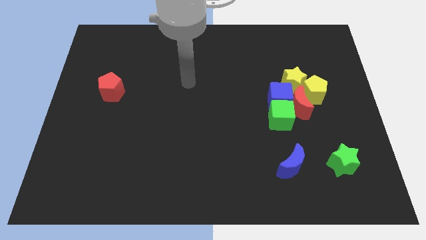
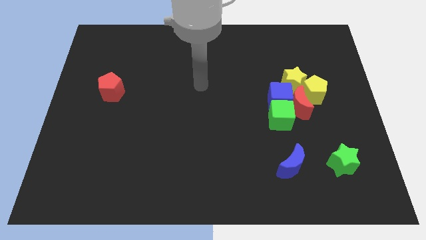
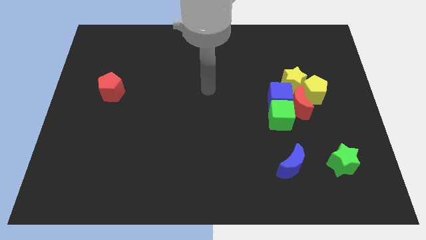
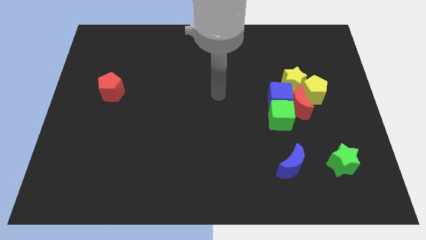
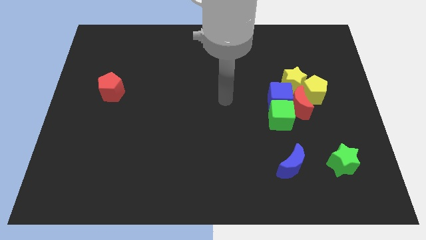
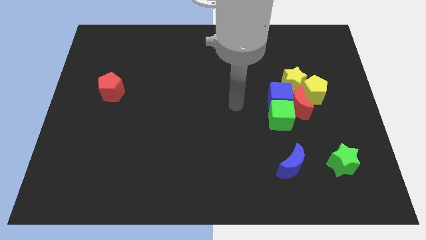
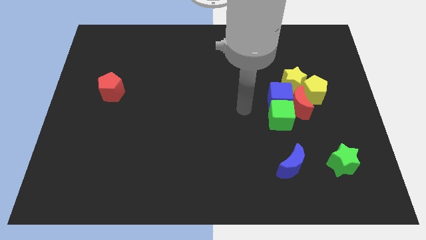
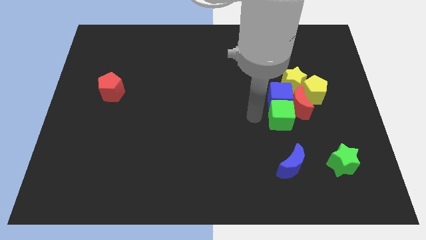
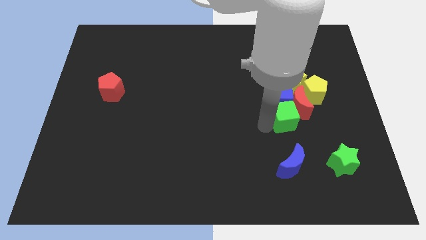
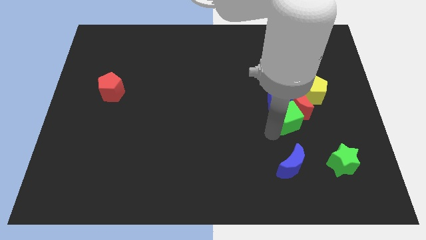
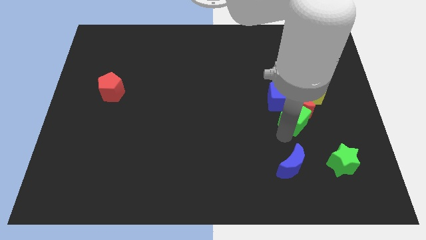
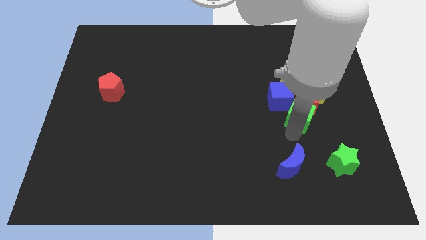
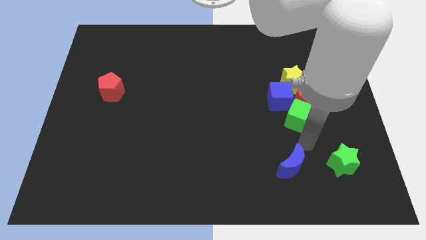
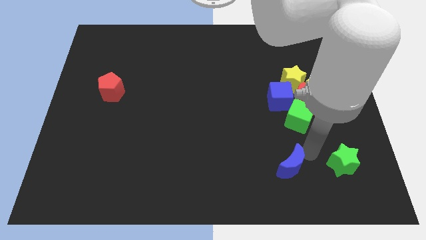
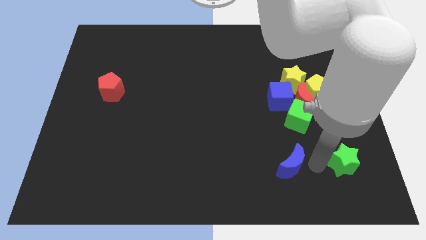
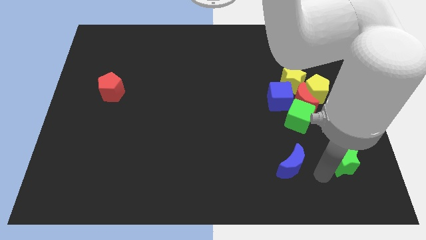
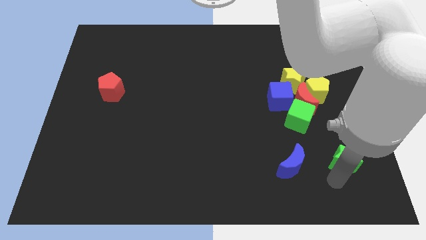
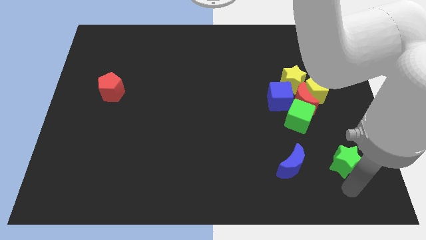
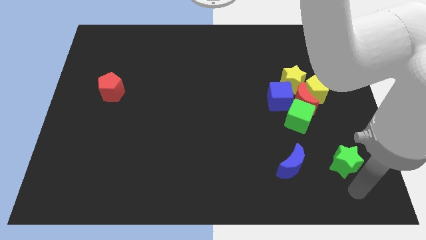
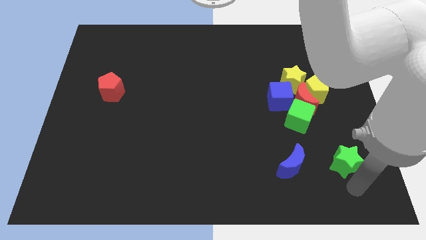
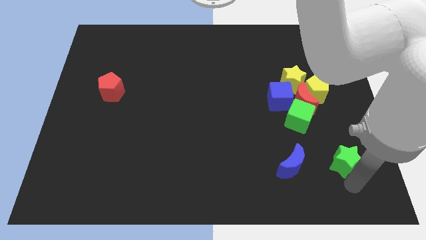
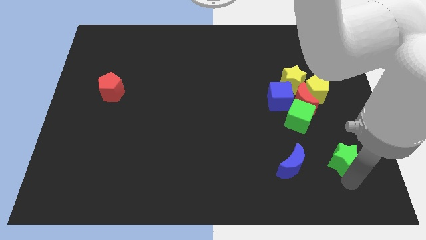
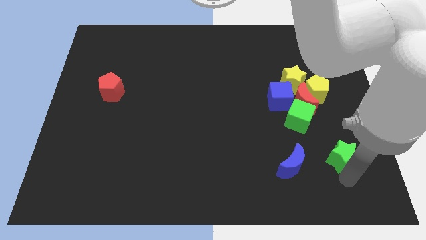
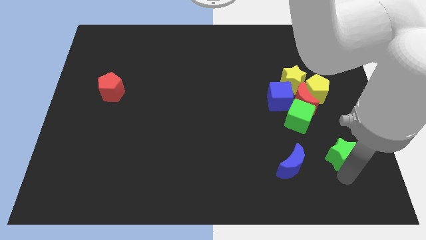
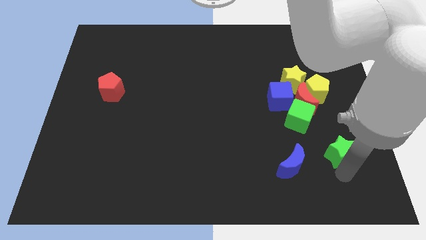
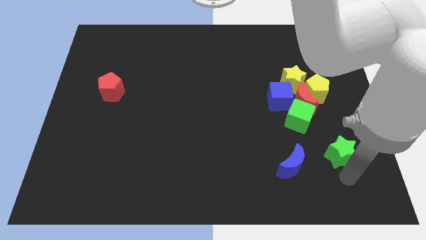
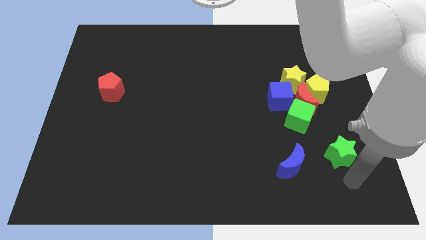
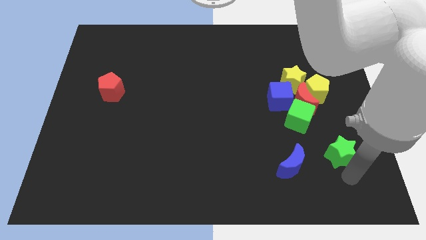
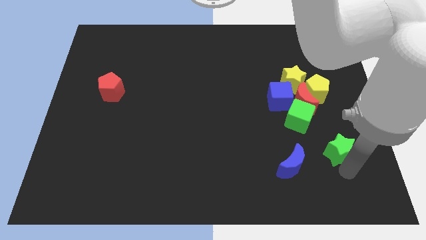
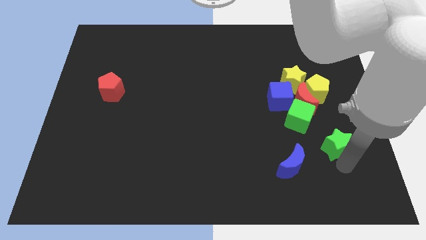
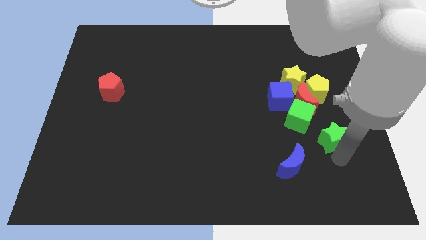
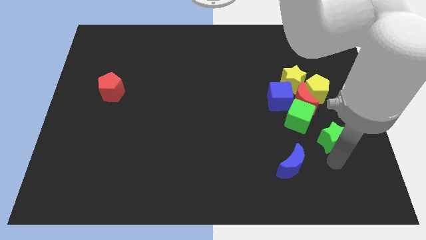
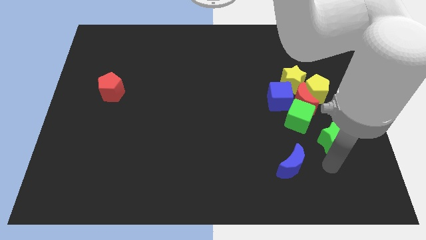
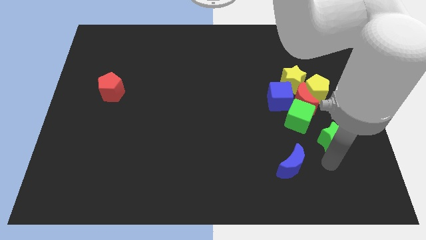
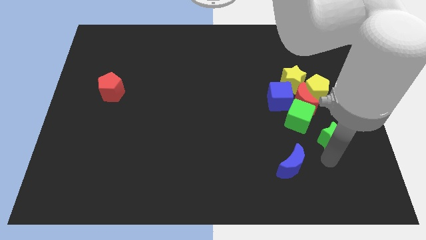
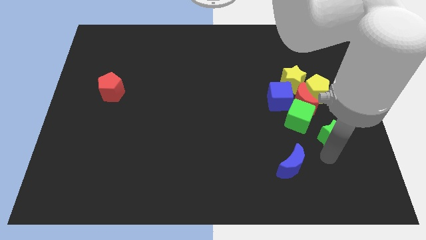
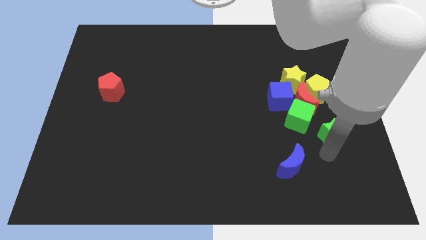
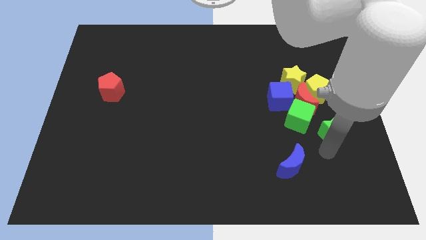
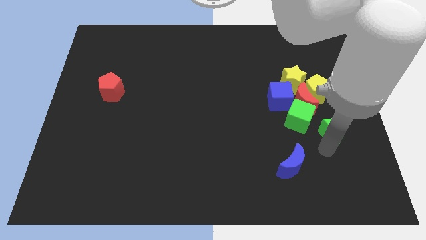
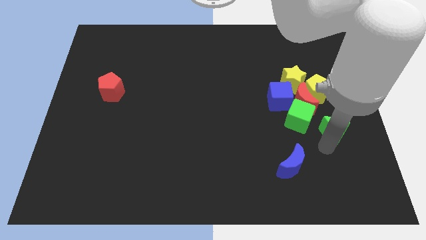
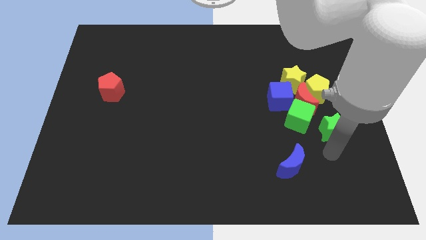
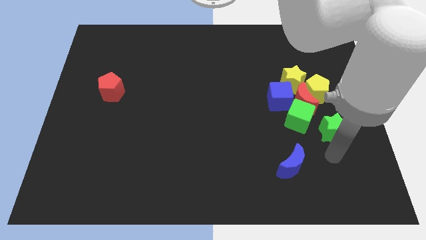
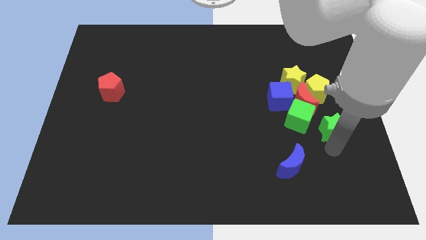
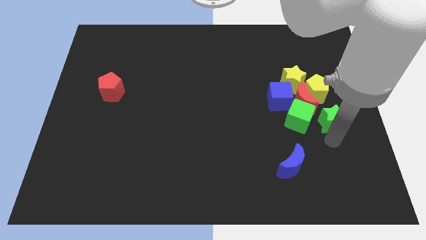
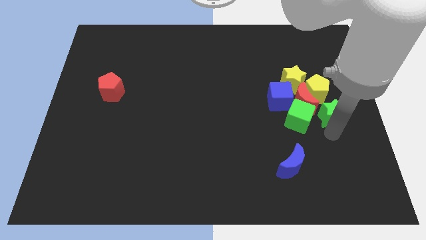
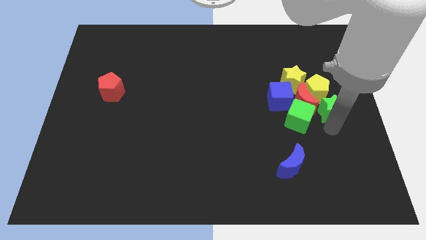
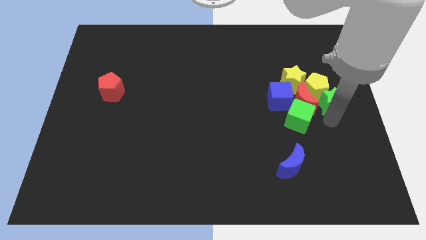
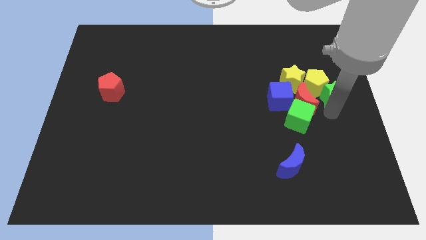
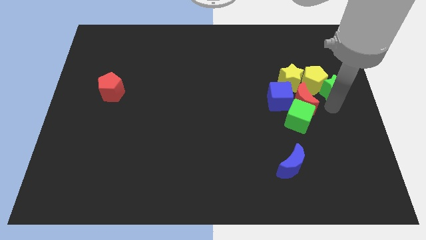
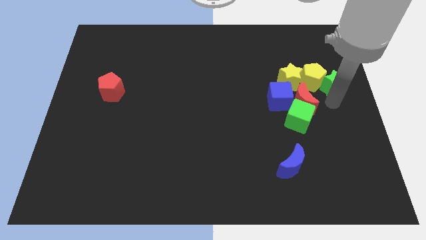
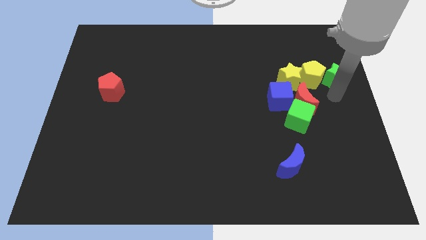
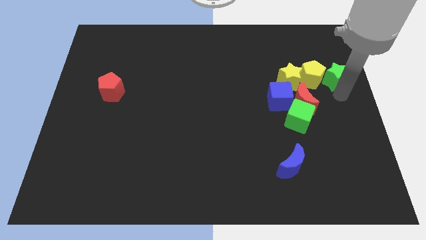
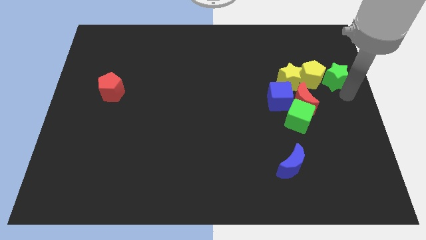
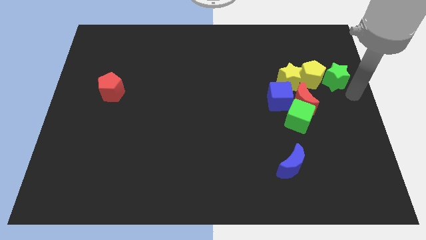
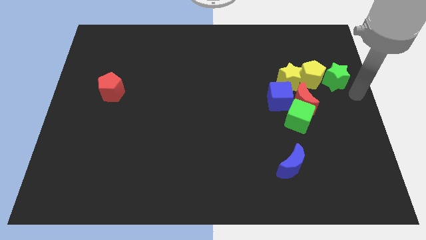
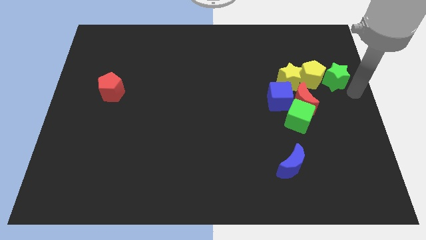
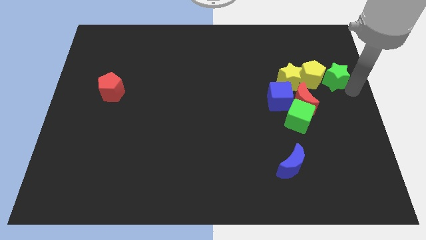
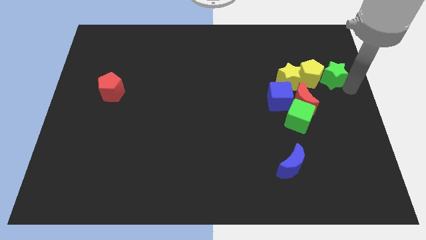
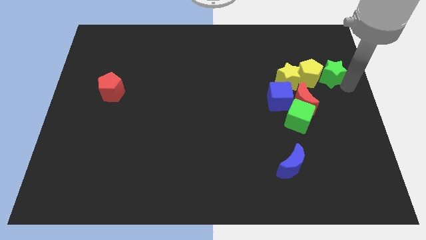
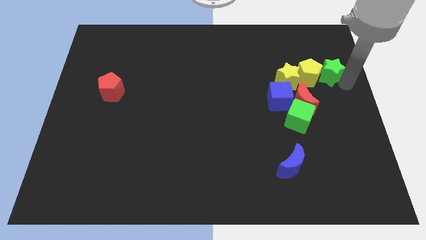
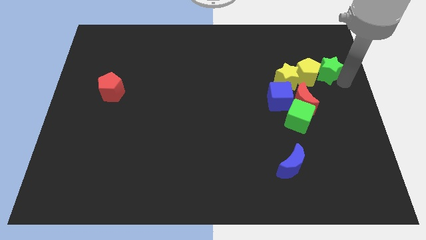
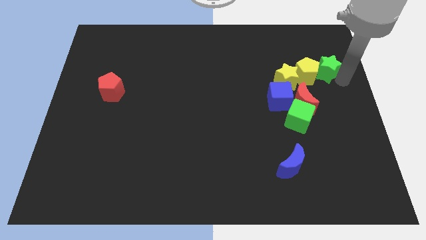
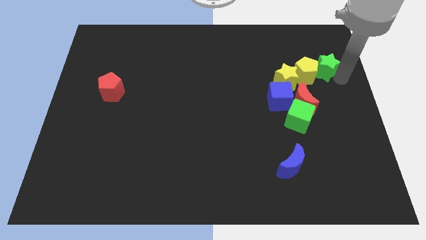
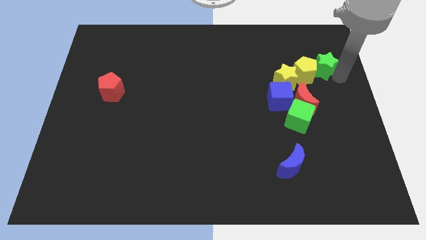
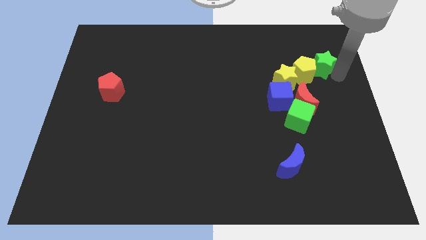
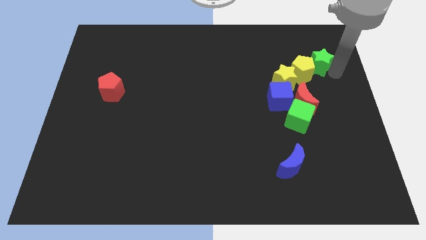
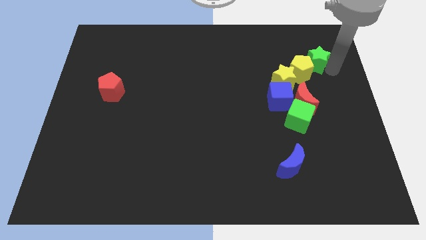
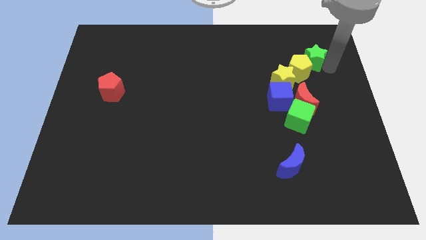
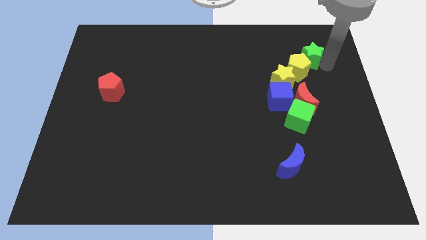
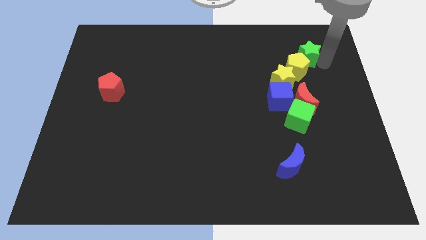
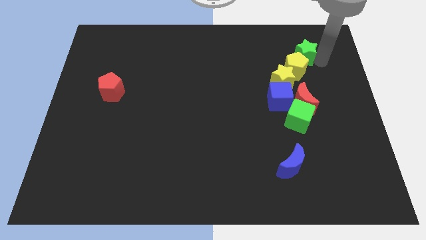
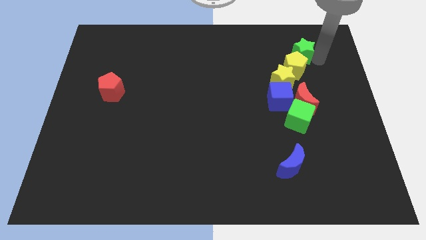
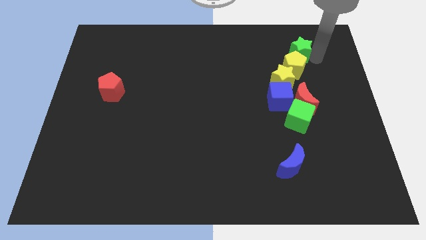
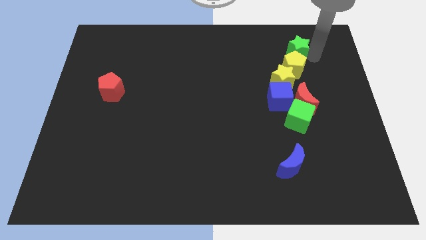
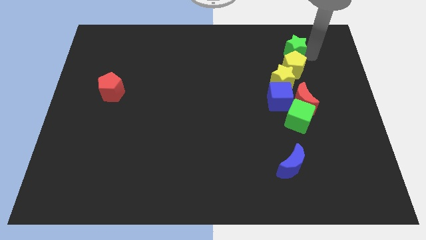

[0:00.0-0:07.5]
move the green star to the top of the yellow star
